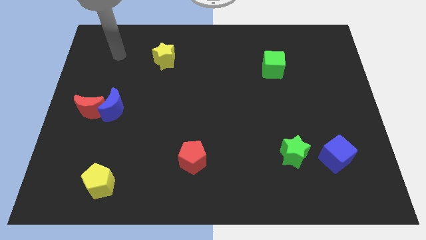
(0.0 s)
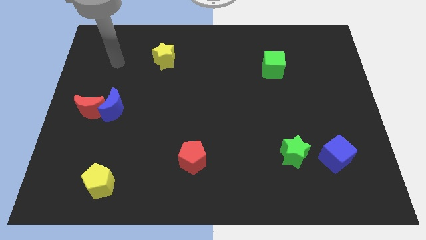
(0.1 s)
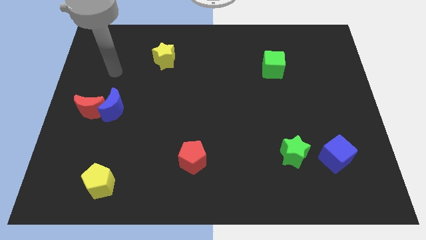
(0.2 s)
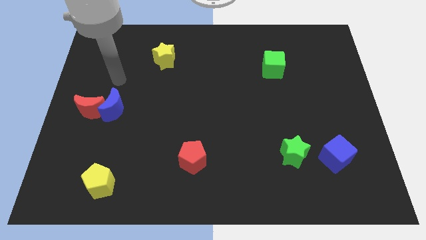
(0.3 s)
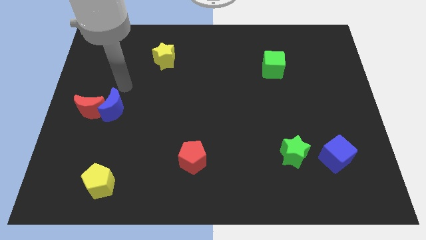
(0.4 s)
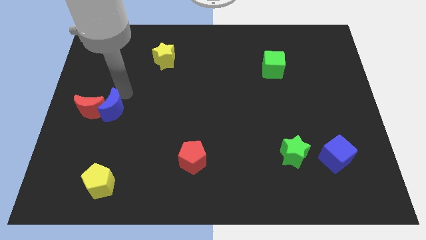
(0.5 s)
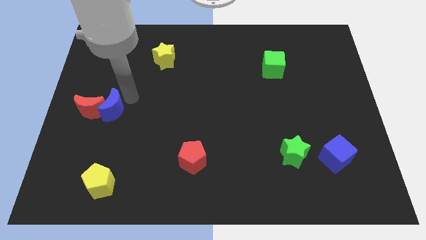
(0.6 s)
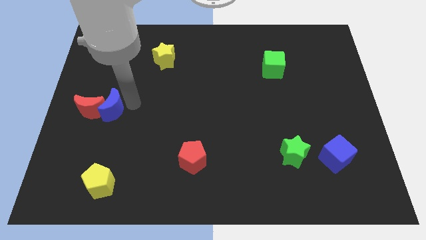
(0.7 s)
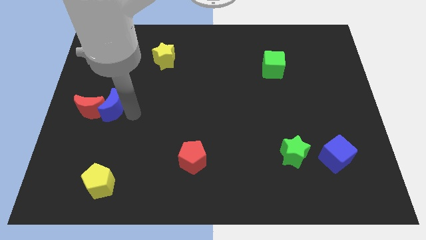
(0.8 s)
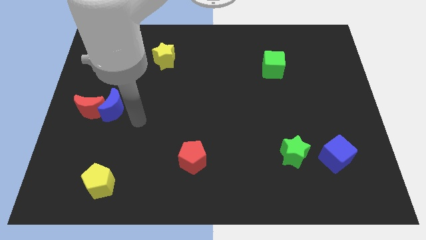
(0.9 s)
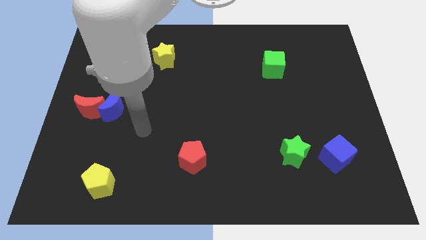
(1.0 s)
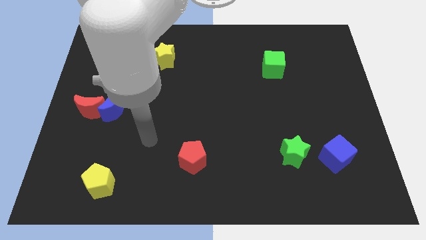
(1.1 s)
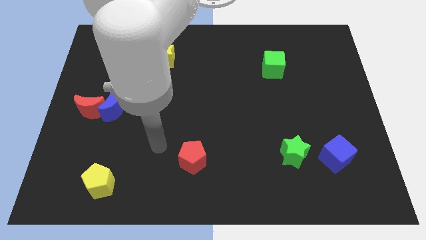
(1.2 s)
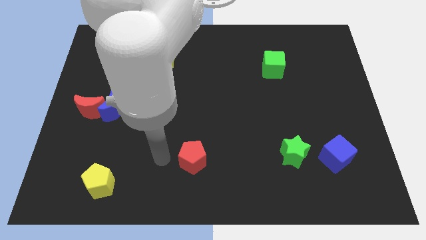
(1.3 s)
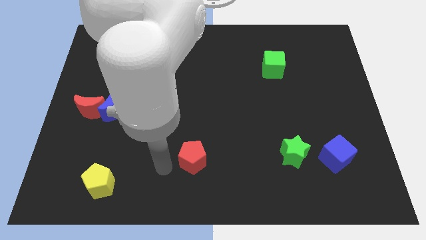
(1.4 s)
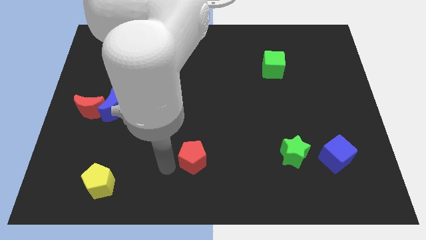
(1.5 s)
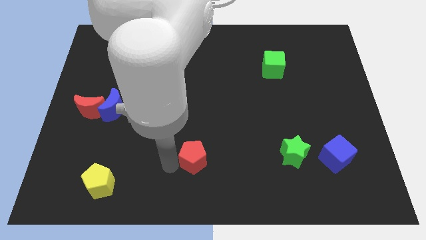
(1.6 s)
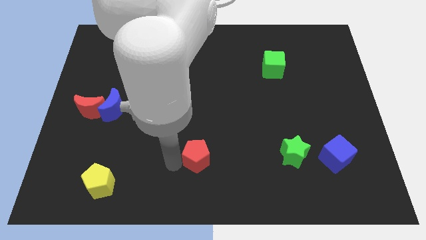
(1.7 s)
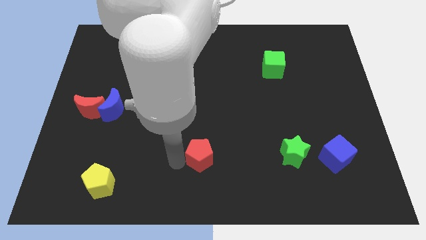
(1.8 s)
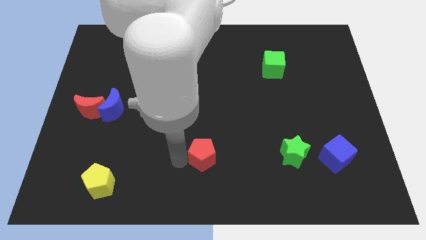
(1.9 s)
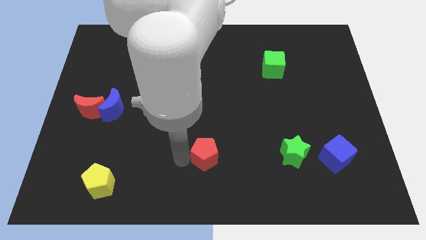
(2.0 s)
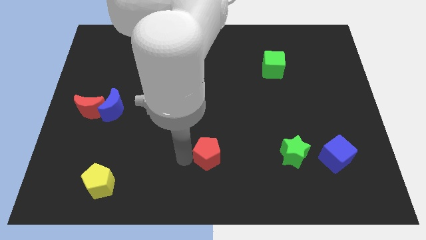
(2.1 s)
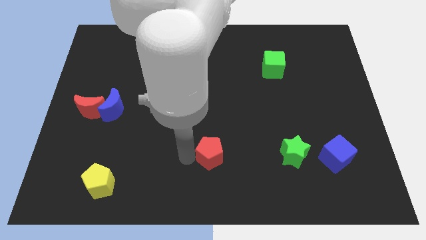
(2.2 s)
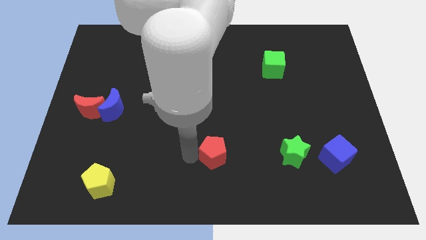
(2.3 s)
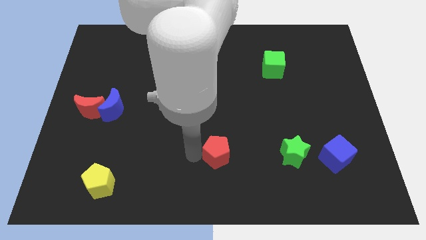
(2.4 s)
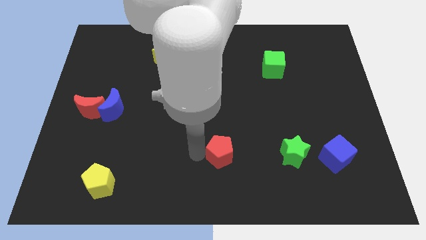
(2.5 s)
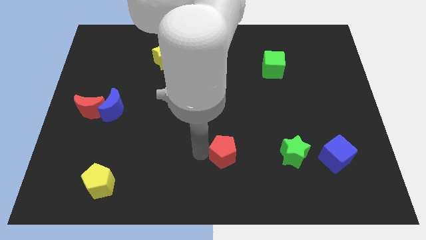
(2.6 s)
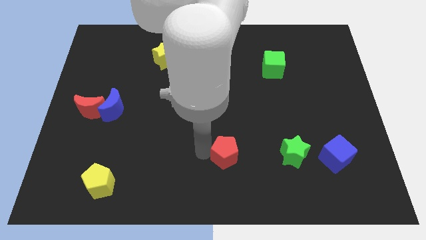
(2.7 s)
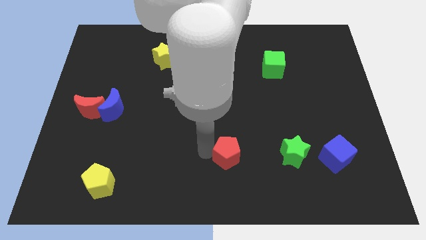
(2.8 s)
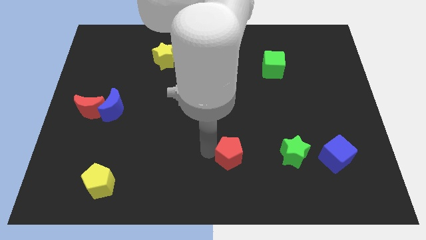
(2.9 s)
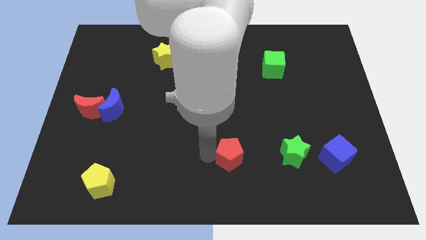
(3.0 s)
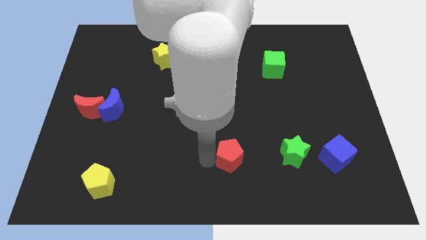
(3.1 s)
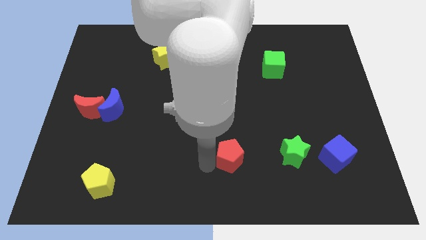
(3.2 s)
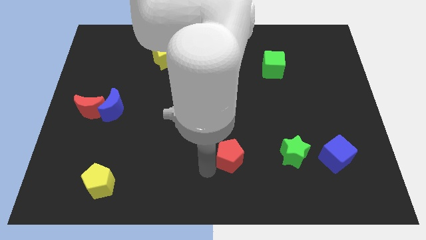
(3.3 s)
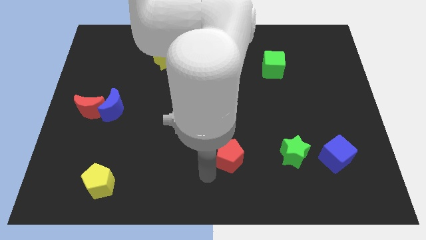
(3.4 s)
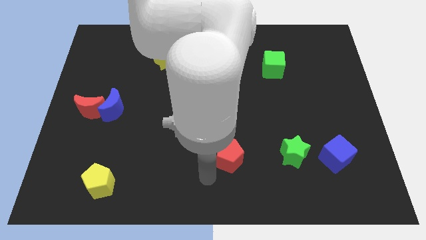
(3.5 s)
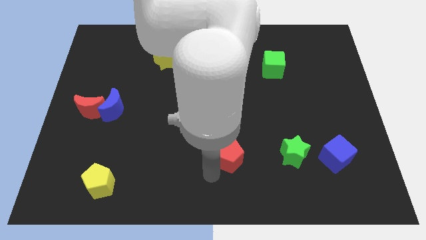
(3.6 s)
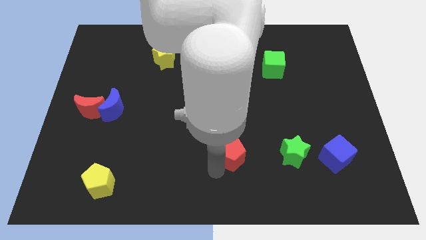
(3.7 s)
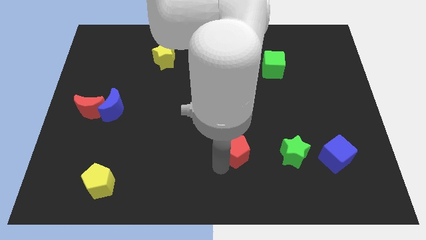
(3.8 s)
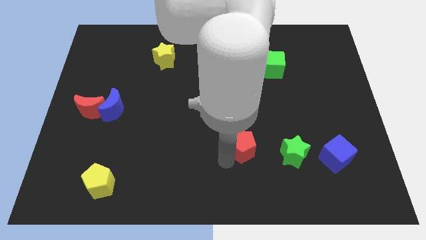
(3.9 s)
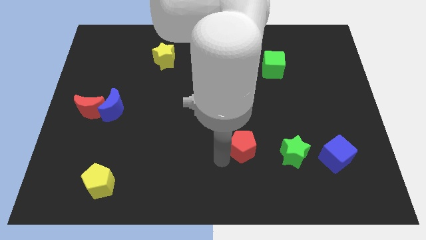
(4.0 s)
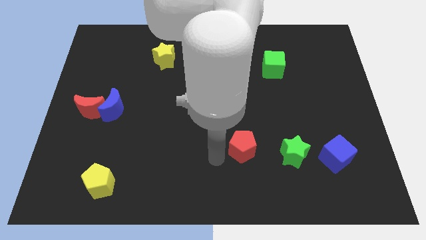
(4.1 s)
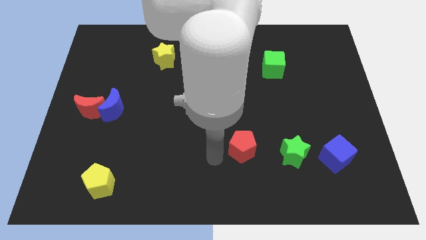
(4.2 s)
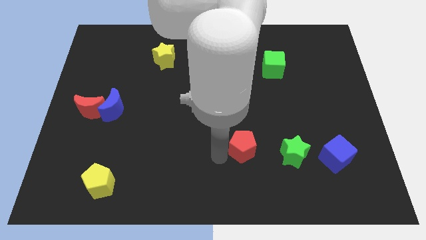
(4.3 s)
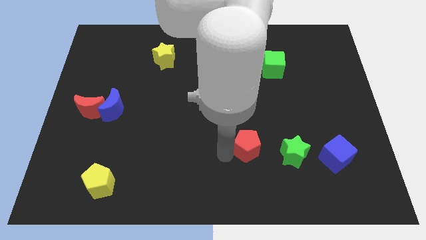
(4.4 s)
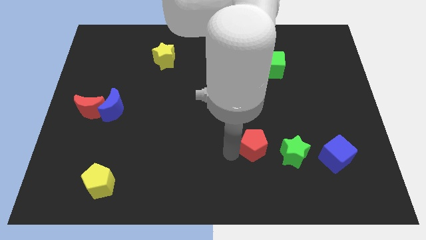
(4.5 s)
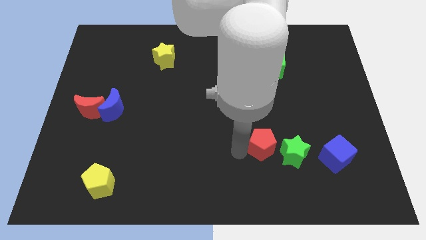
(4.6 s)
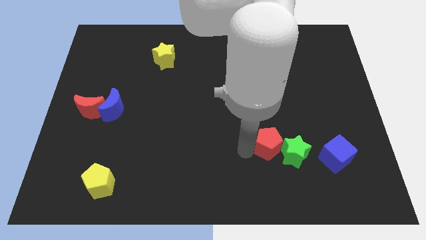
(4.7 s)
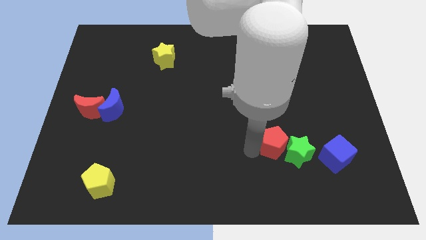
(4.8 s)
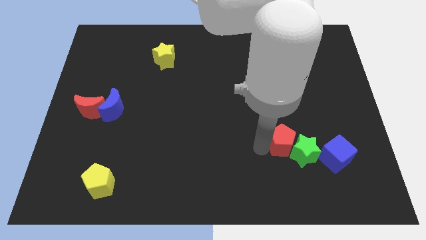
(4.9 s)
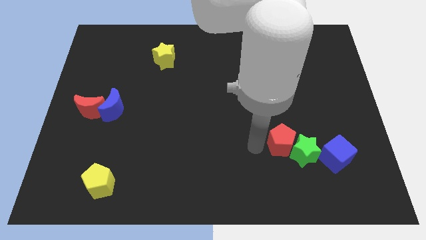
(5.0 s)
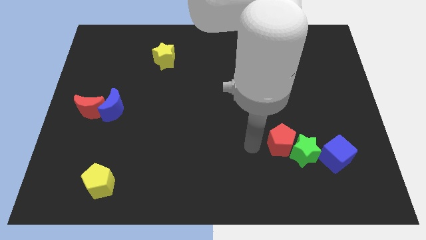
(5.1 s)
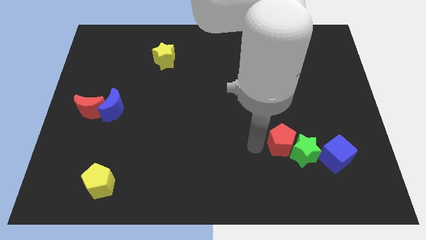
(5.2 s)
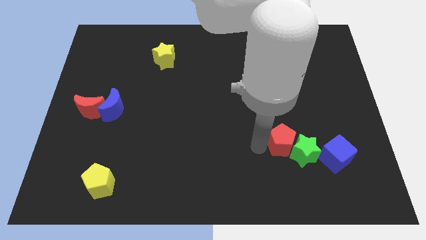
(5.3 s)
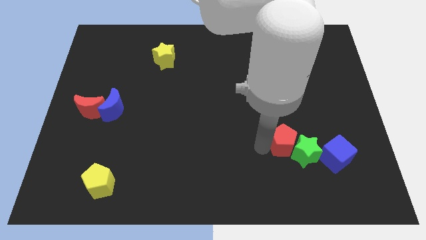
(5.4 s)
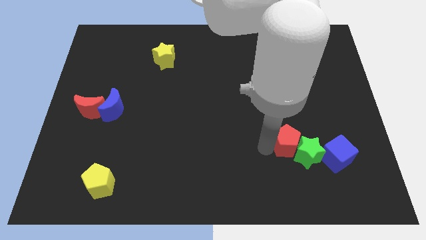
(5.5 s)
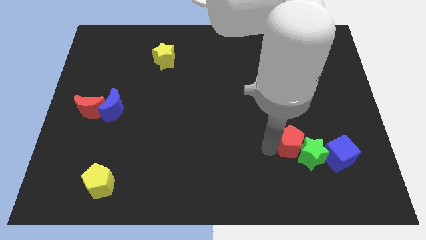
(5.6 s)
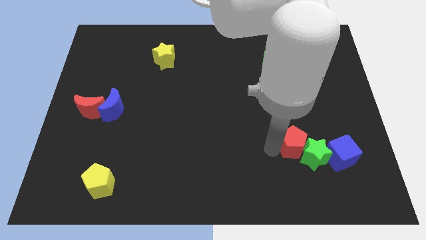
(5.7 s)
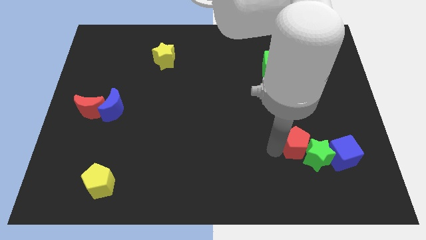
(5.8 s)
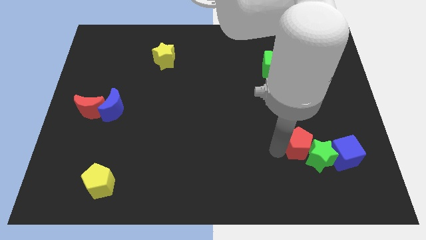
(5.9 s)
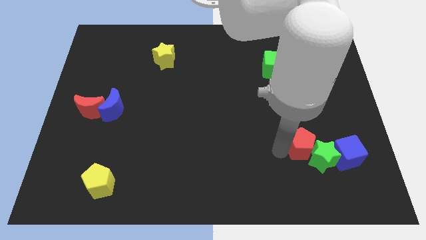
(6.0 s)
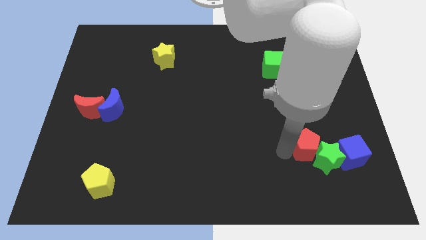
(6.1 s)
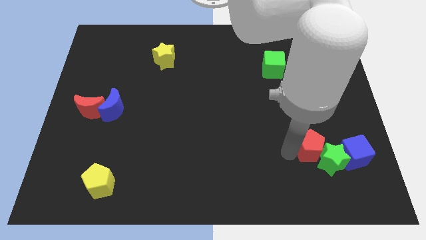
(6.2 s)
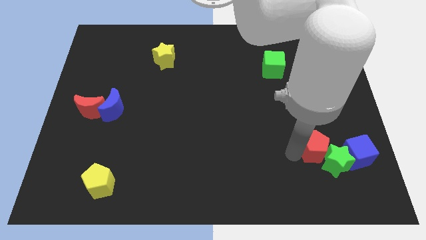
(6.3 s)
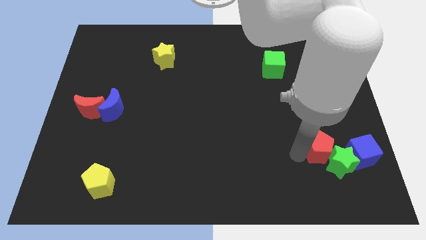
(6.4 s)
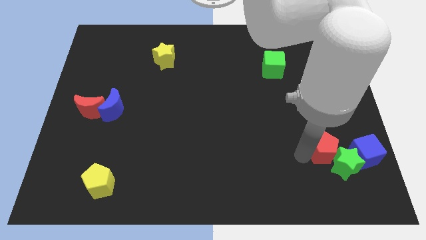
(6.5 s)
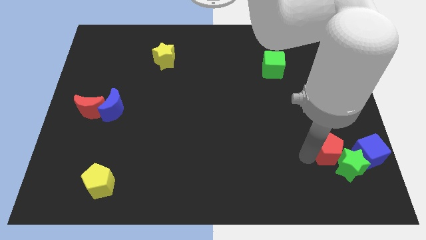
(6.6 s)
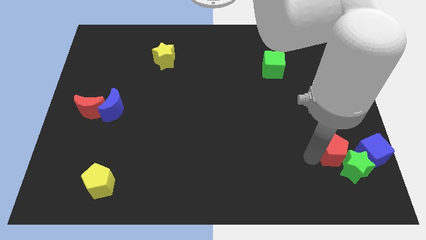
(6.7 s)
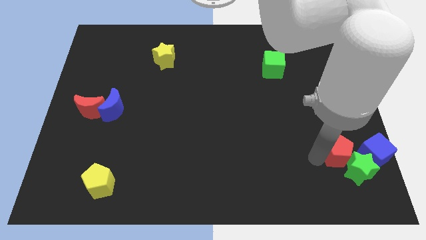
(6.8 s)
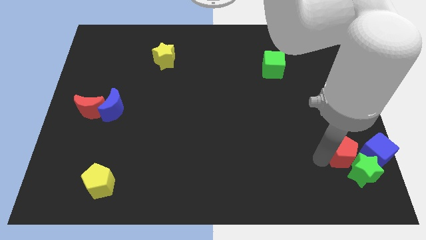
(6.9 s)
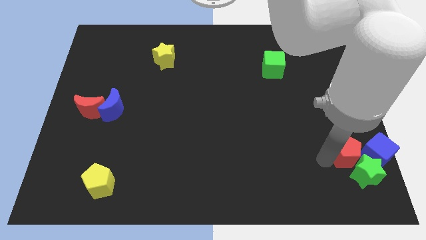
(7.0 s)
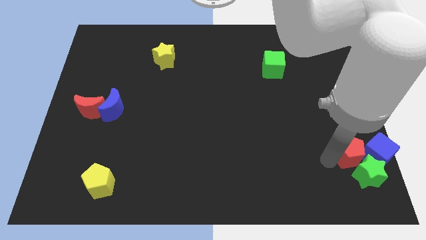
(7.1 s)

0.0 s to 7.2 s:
put the red pentagon close to the blue cube

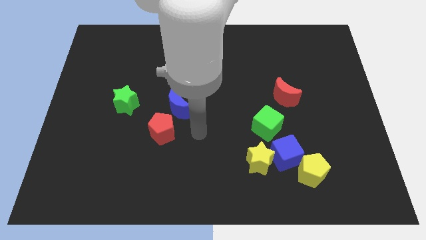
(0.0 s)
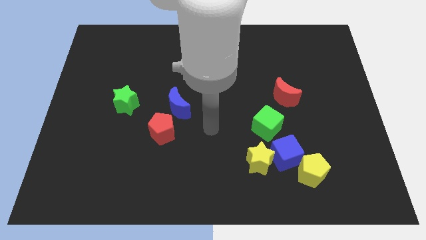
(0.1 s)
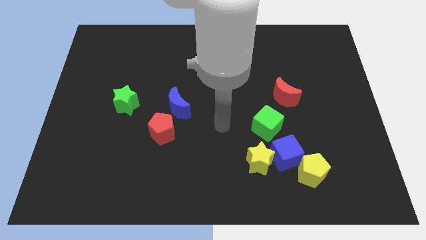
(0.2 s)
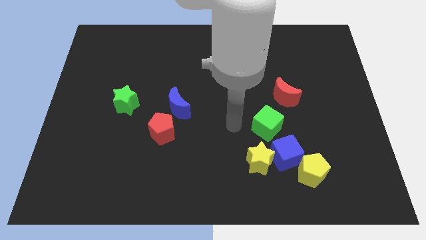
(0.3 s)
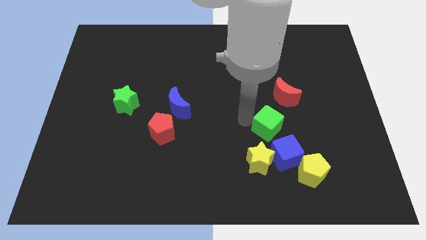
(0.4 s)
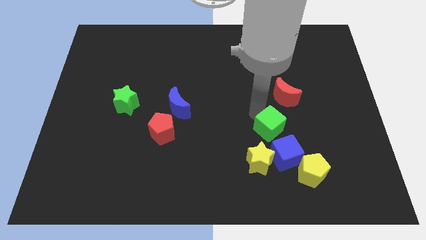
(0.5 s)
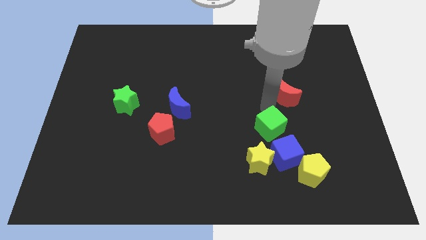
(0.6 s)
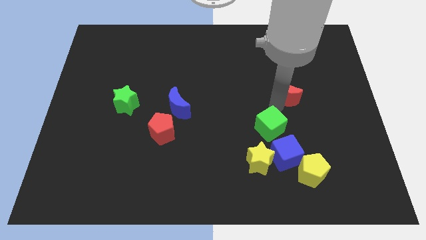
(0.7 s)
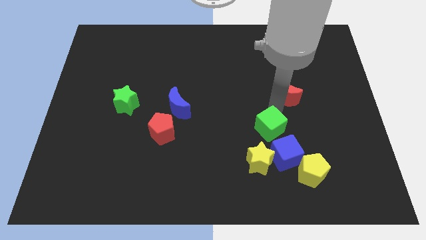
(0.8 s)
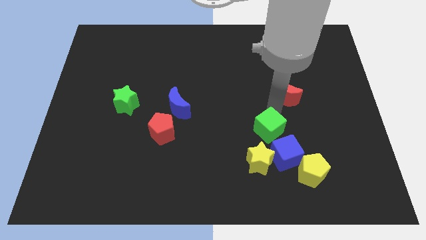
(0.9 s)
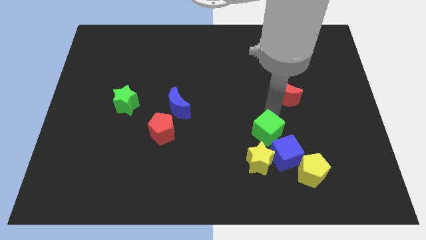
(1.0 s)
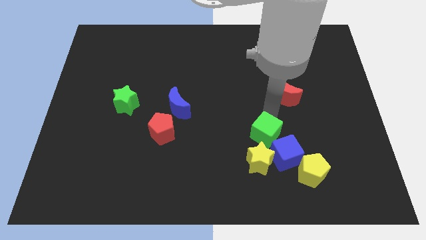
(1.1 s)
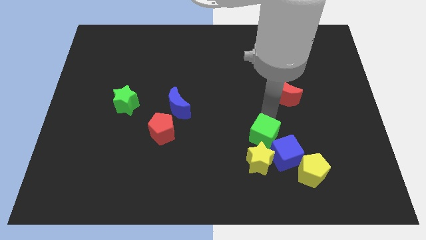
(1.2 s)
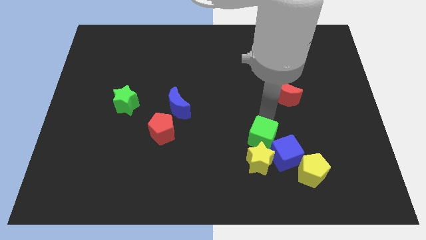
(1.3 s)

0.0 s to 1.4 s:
move the green cube close to the yellow star
